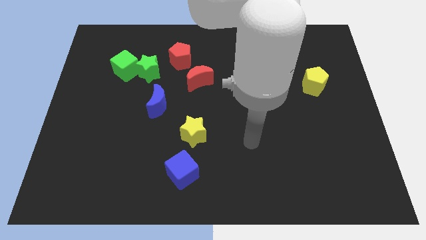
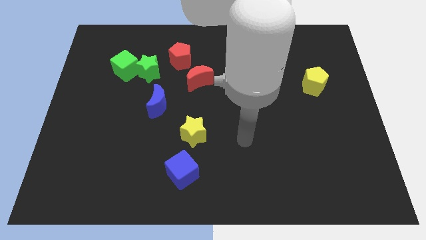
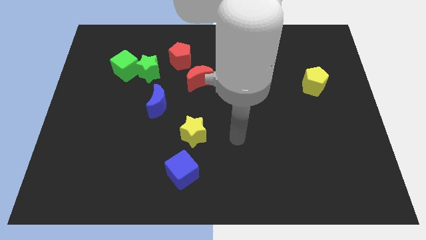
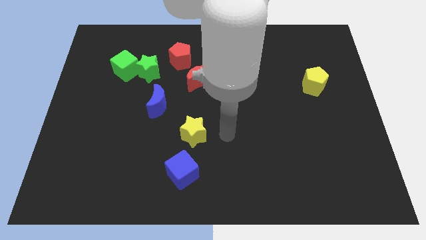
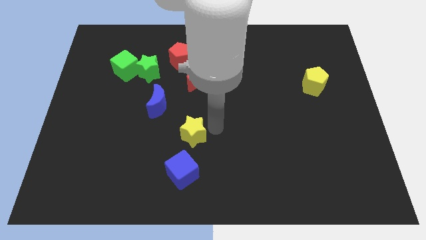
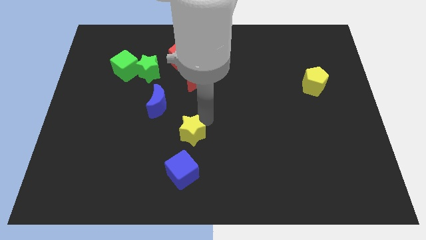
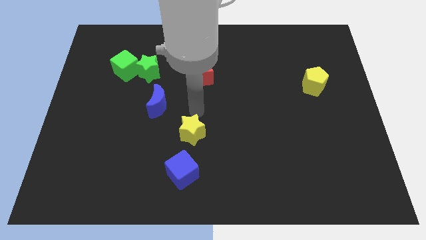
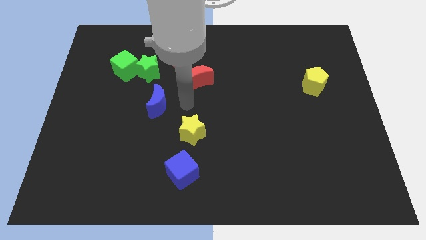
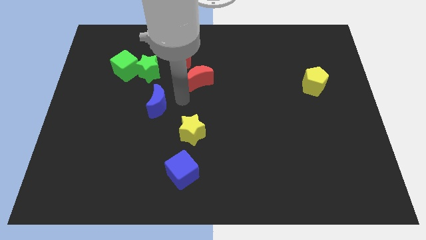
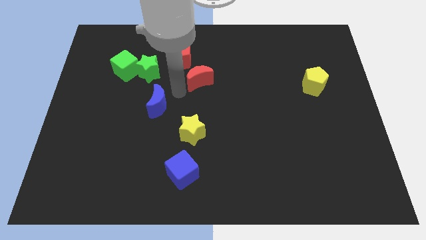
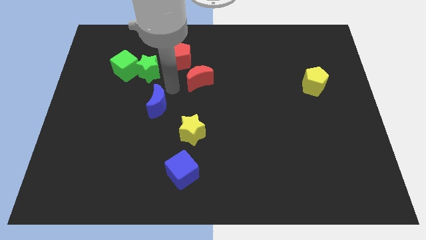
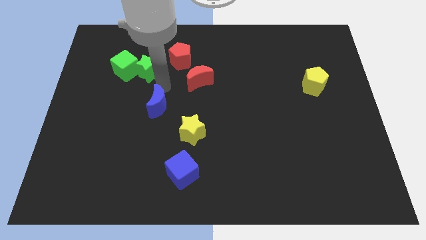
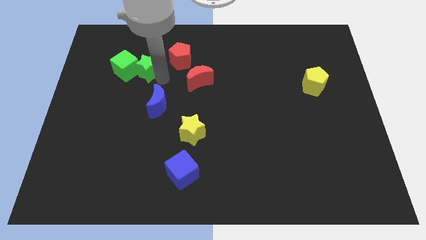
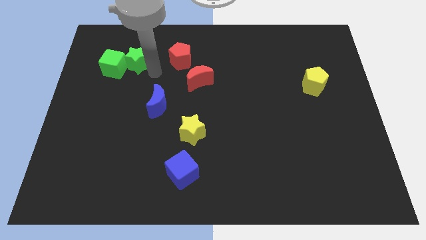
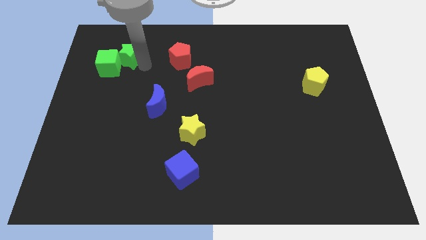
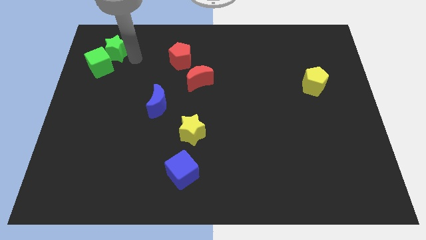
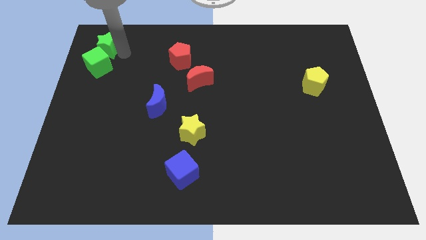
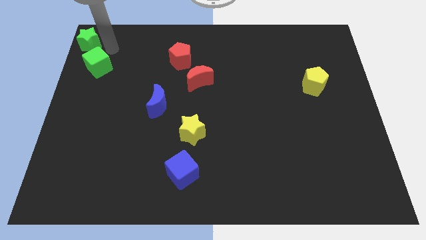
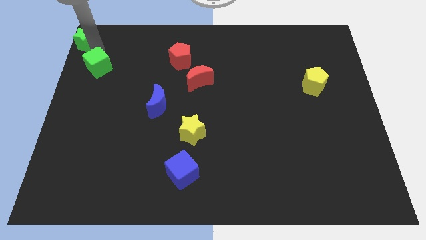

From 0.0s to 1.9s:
pull the green cube apart from the green star

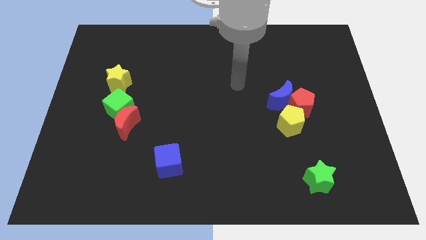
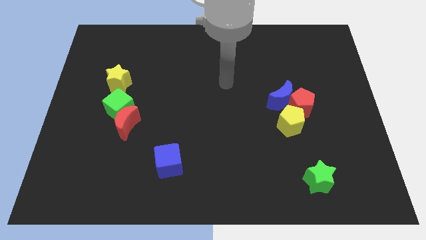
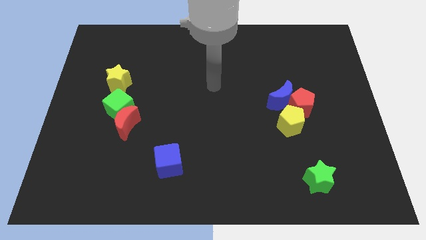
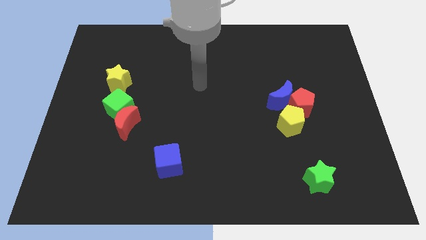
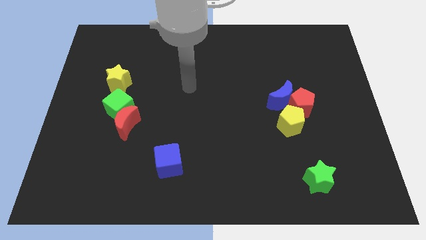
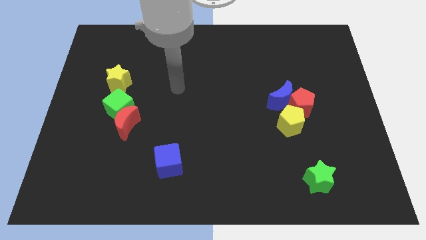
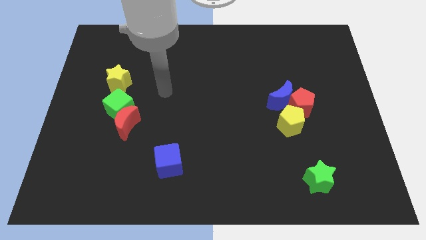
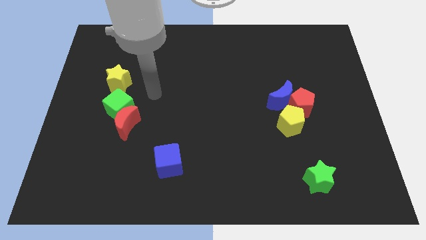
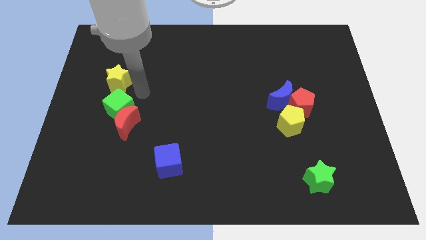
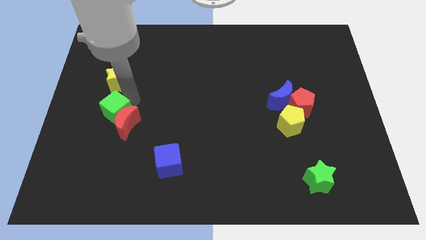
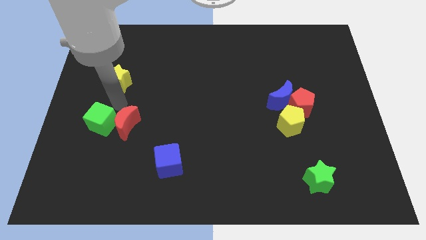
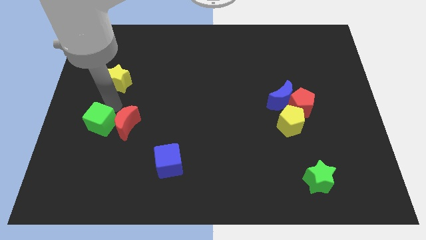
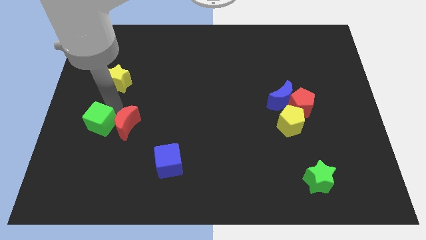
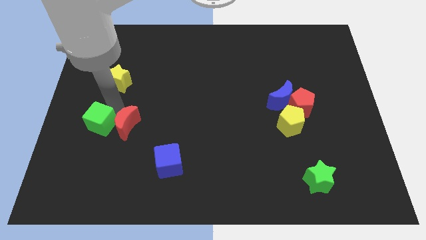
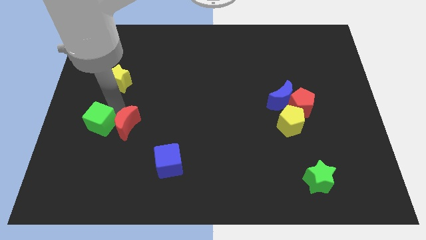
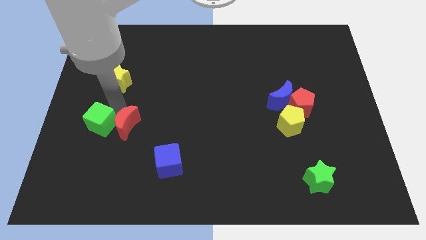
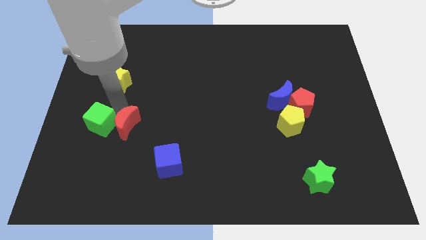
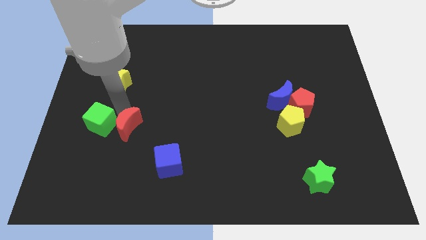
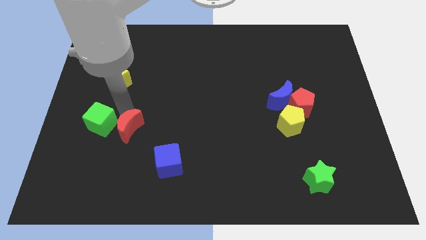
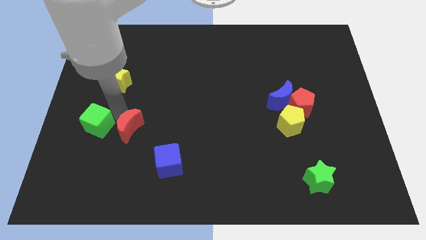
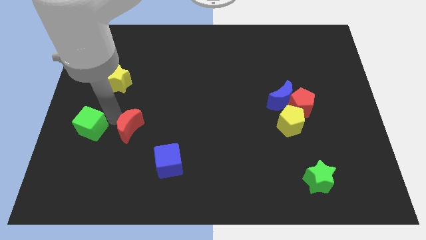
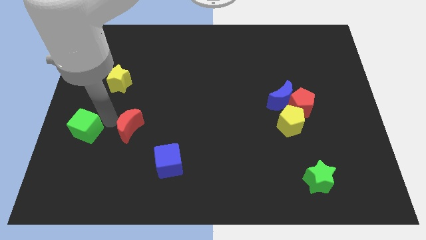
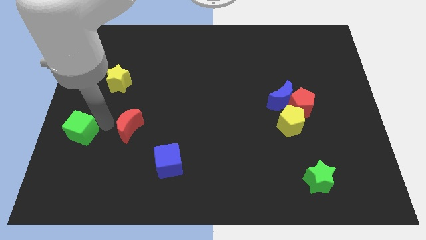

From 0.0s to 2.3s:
move the red moon away from the green cube

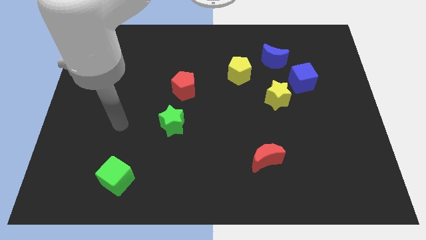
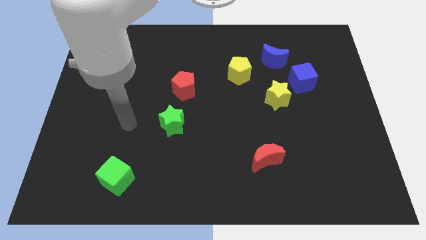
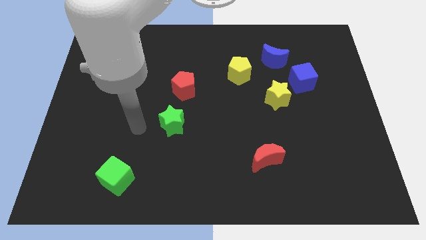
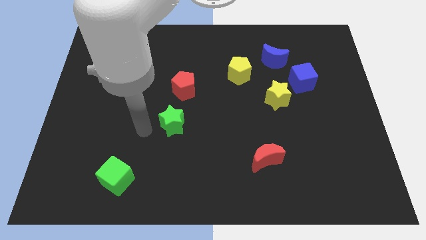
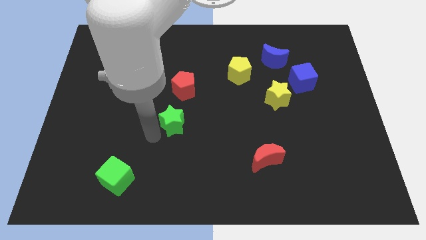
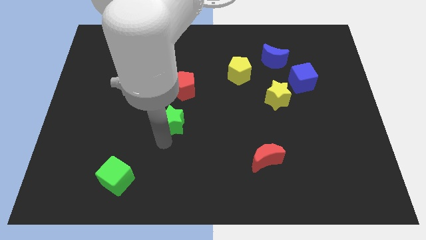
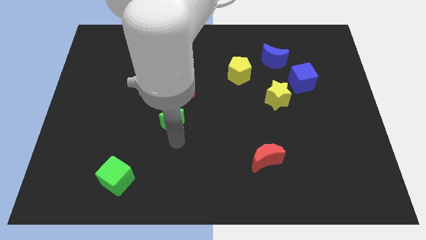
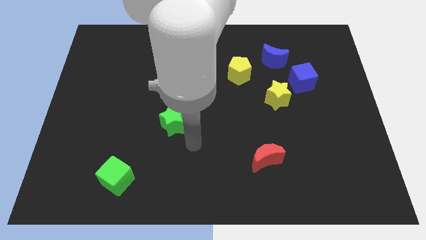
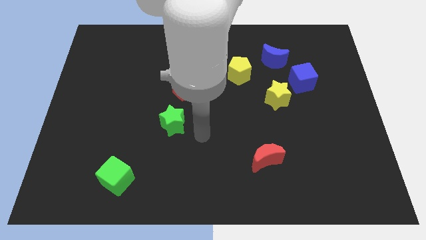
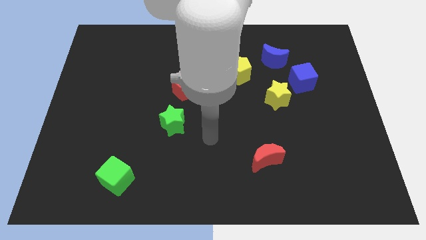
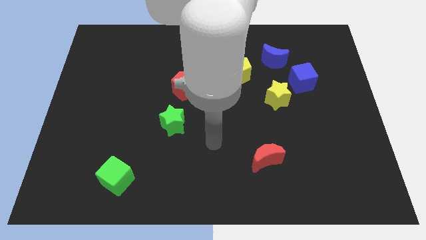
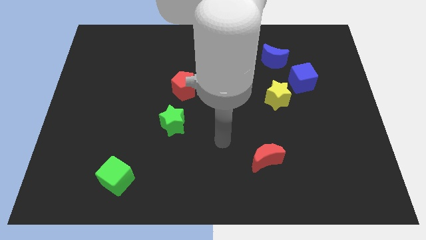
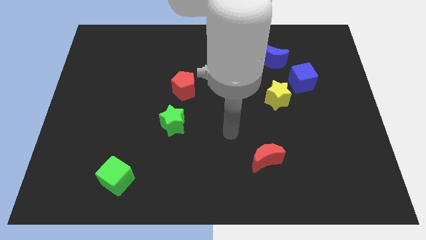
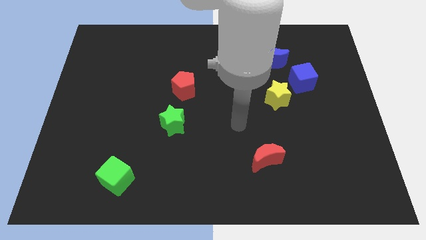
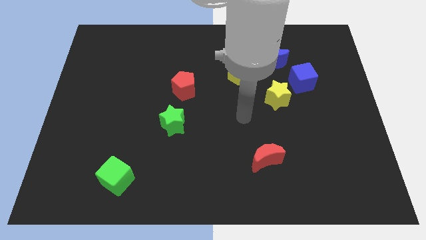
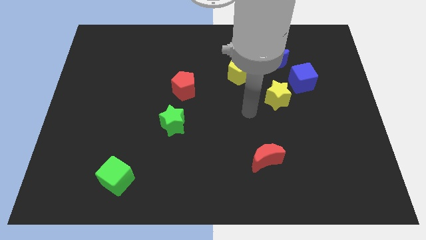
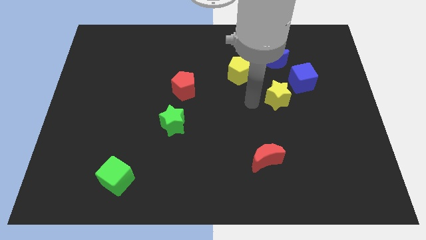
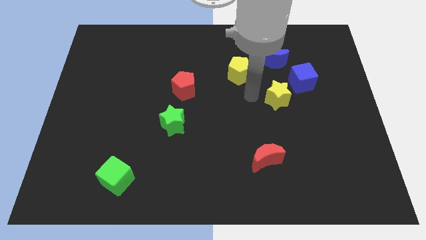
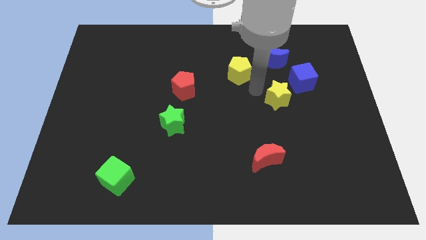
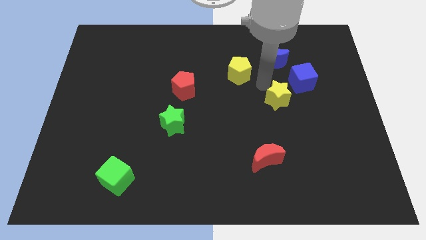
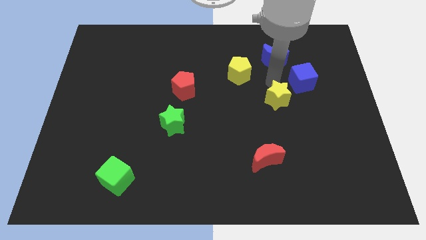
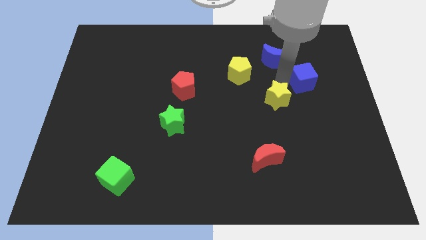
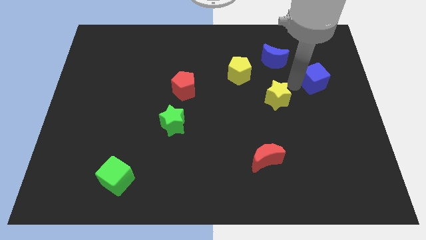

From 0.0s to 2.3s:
move the yellow star away from the blue cube

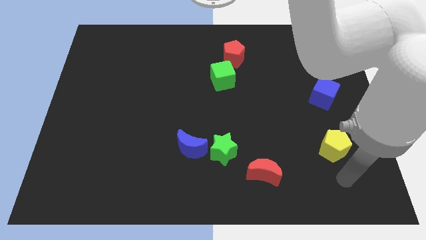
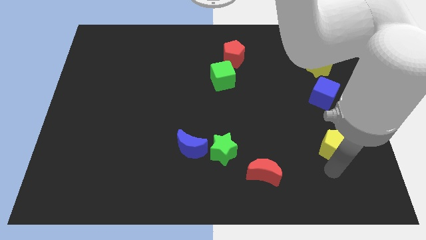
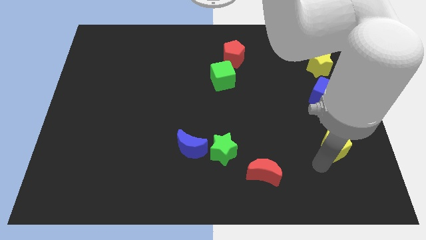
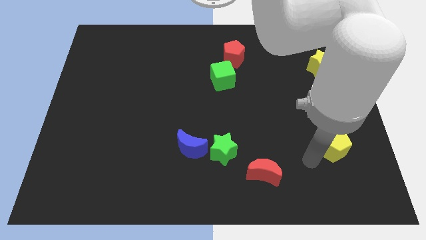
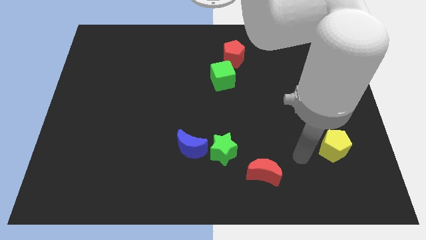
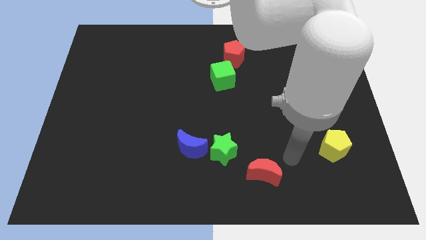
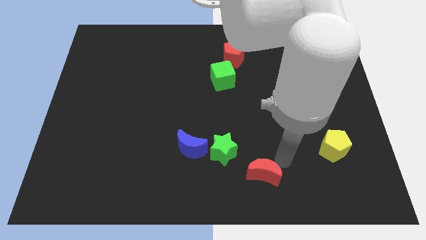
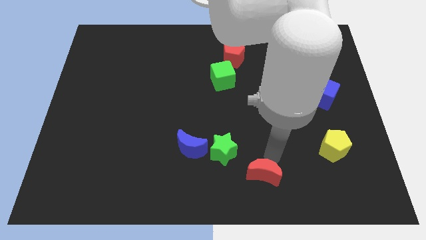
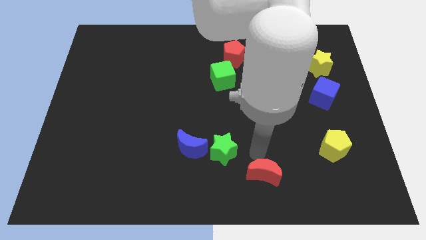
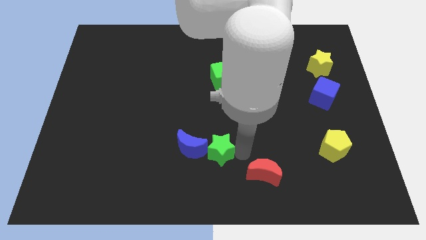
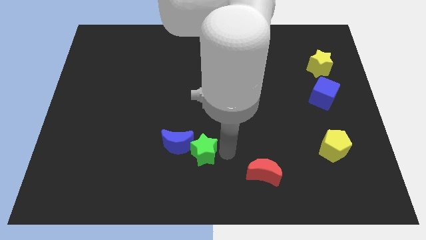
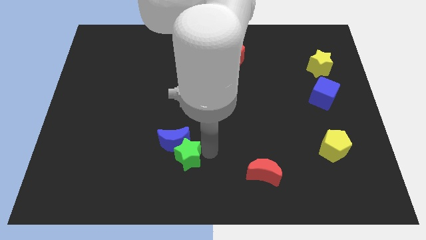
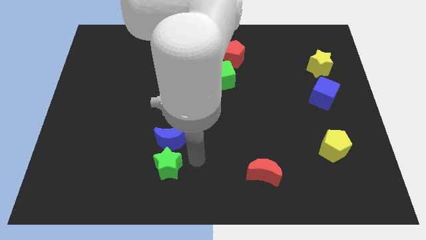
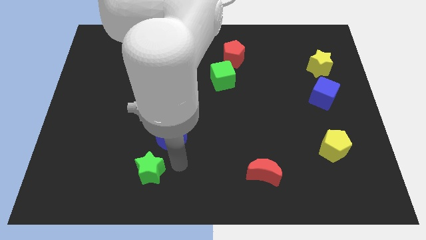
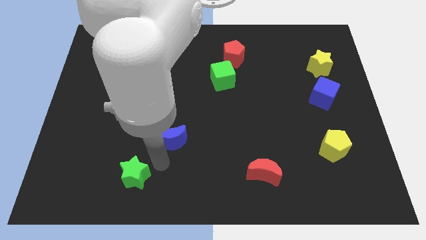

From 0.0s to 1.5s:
separate the blue moon from the green star

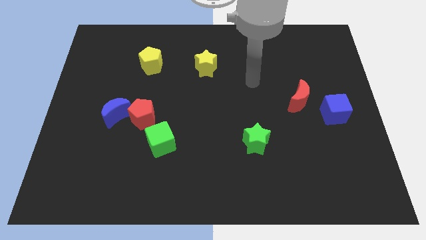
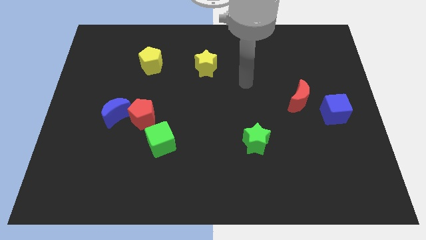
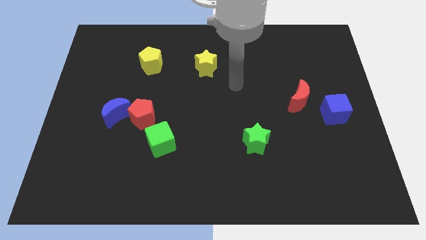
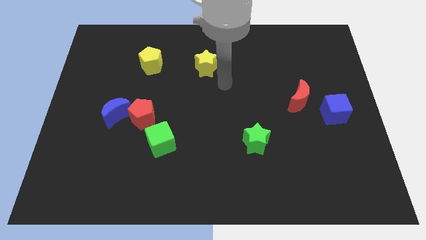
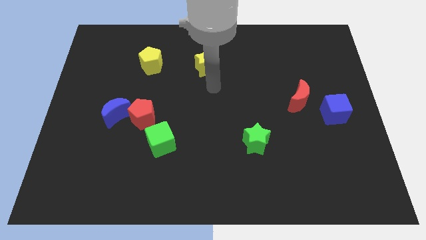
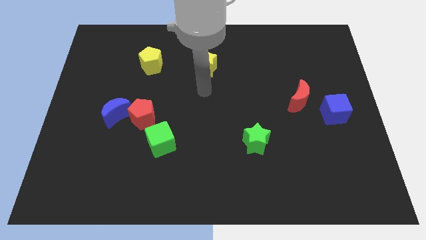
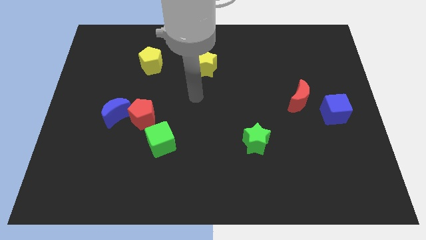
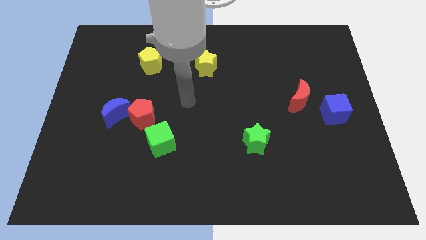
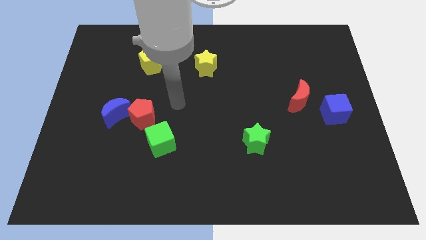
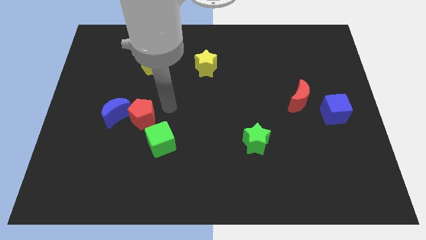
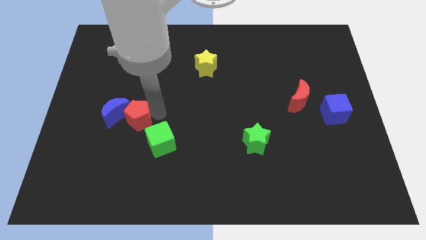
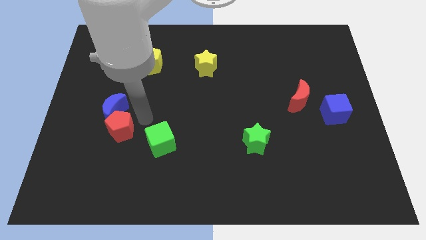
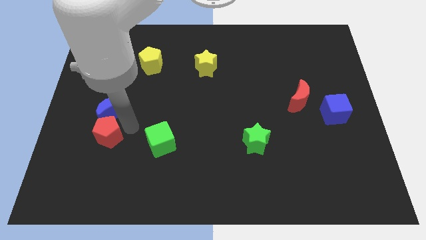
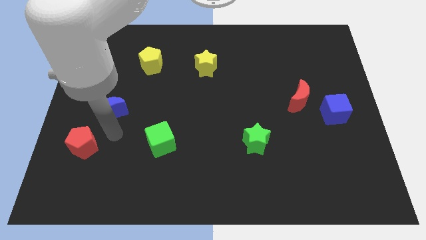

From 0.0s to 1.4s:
move the blue moon away from the red pentagon
